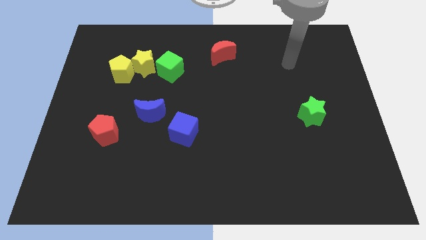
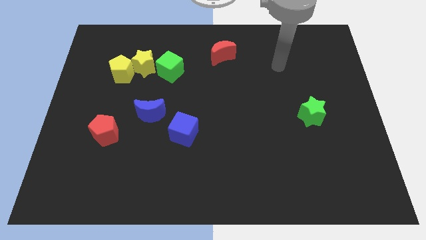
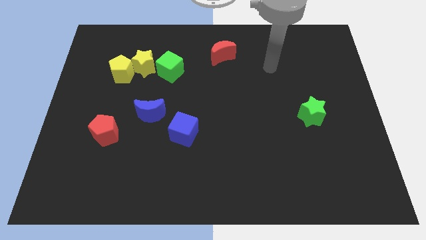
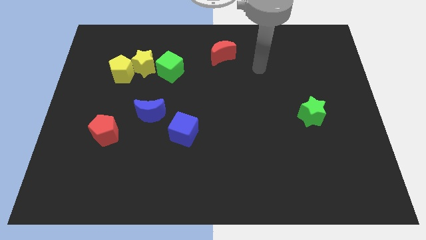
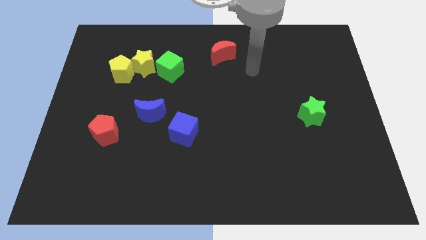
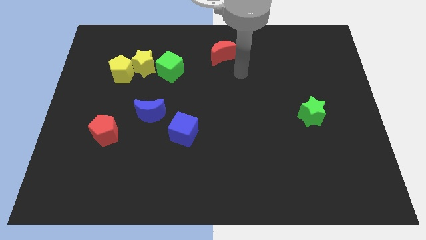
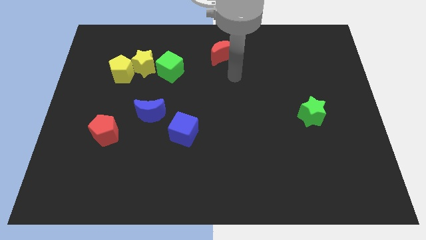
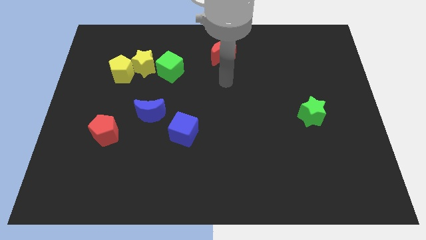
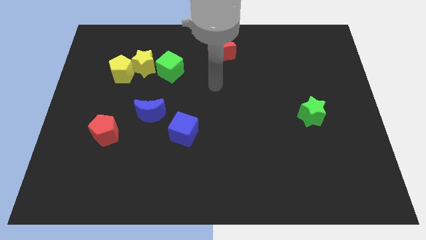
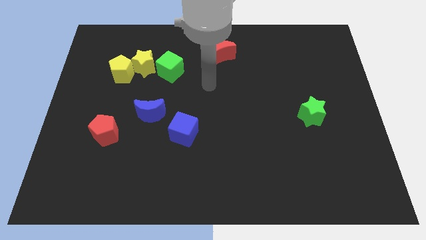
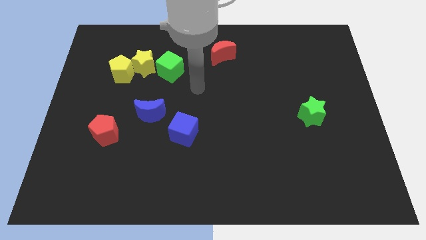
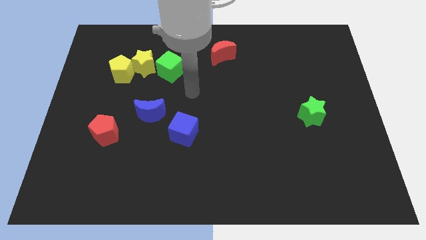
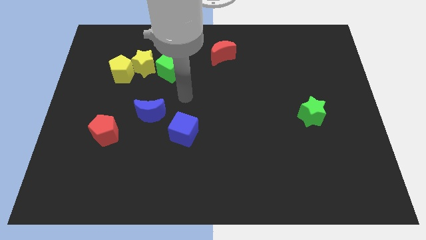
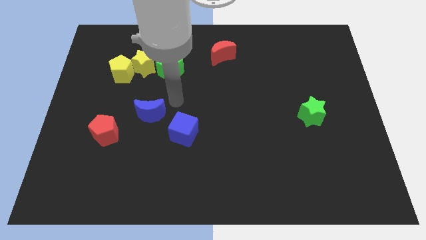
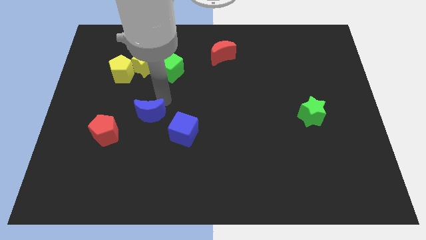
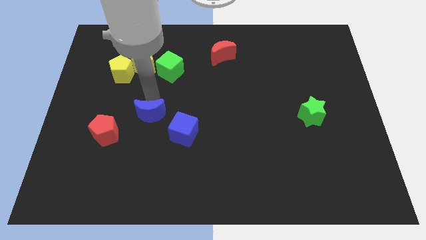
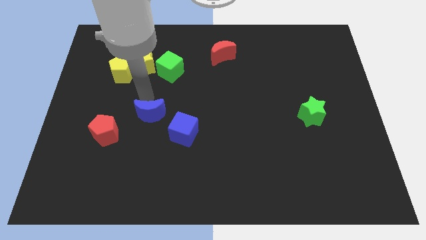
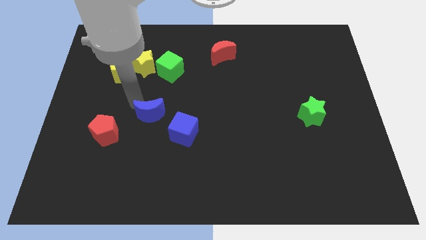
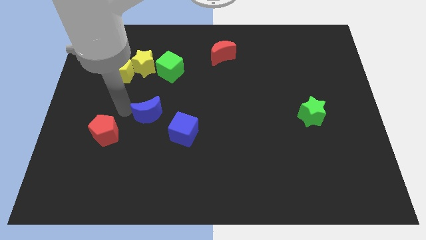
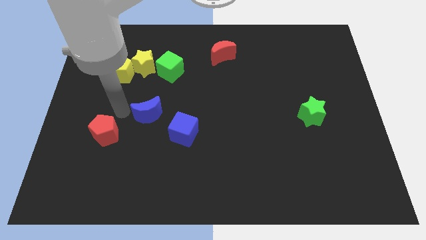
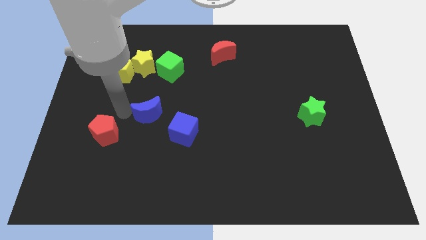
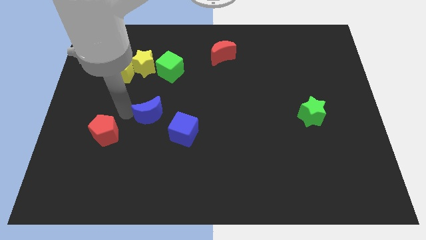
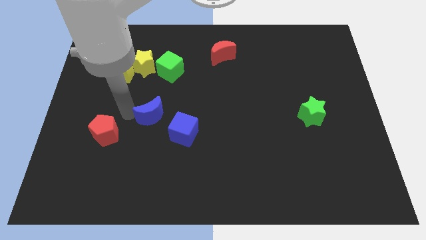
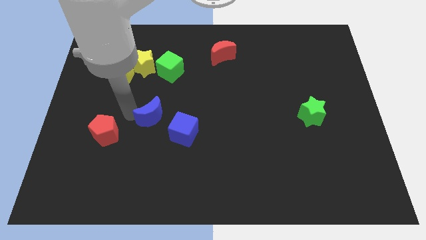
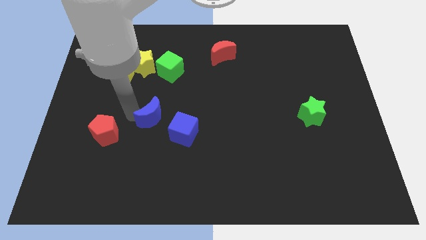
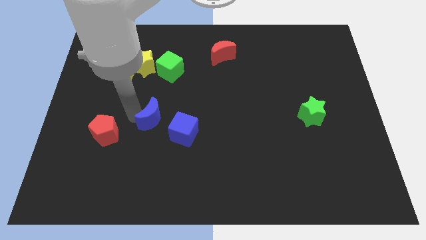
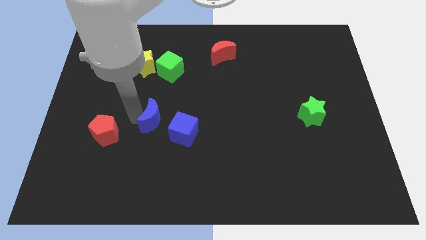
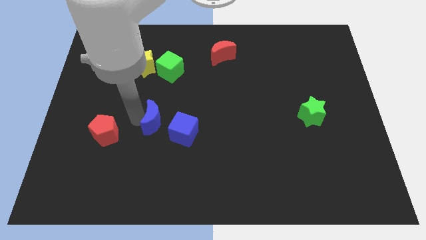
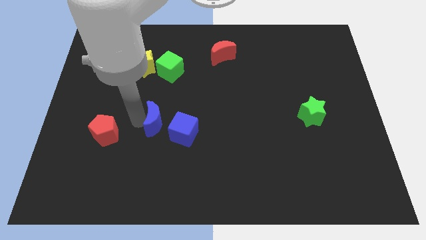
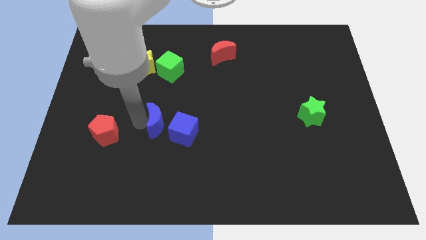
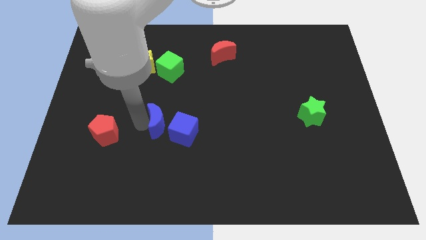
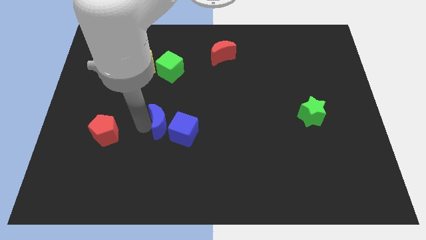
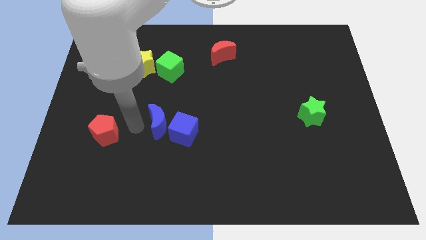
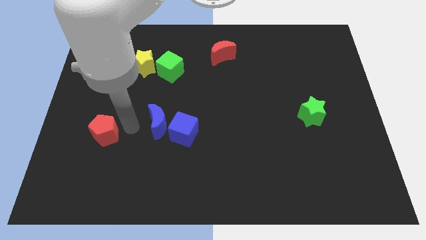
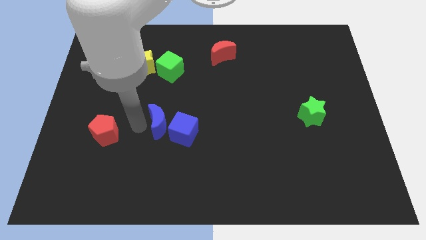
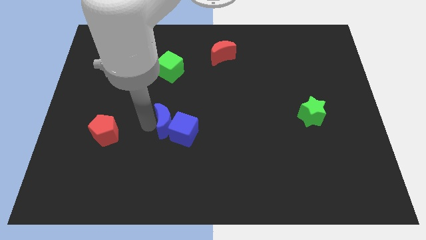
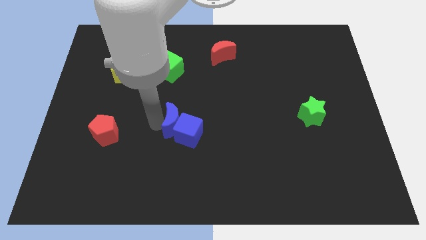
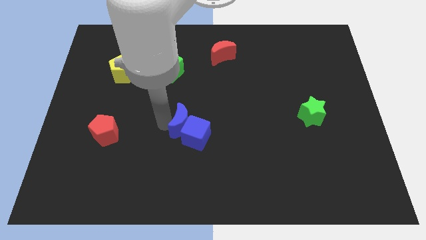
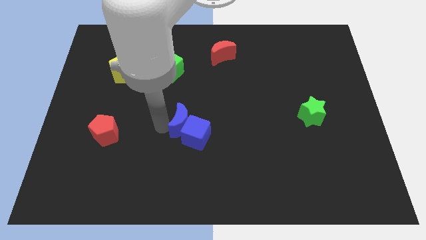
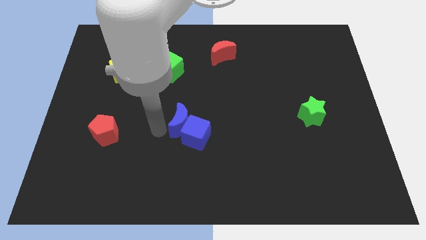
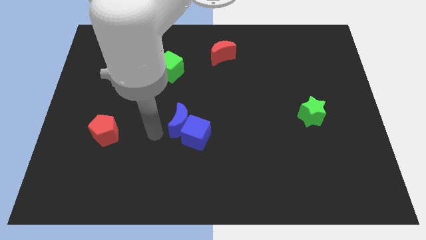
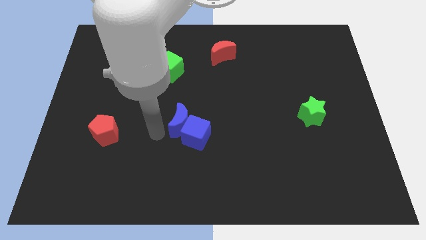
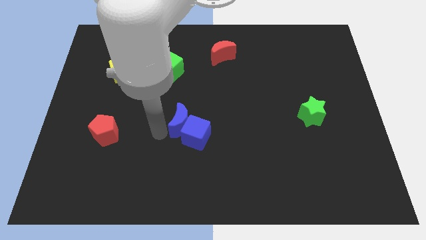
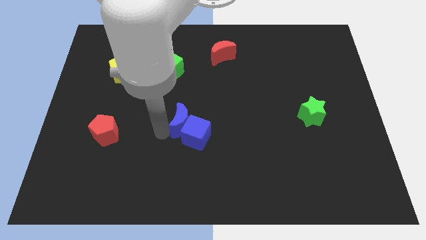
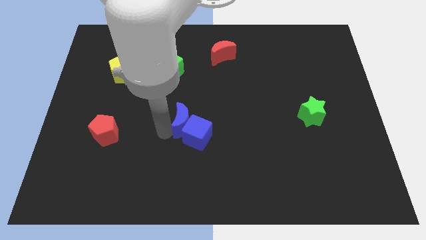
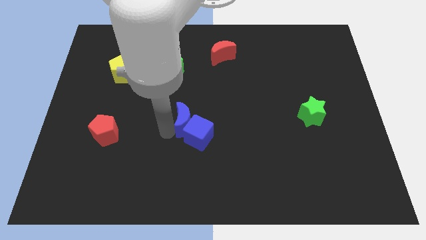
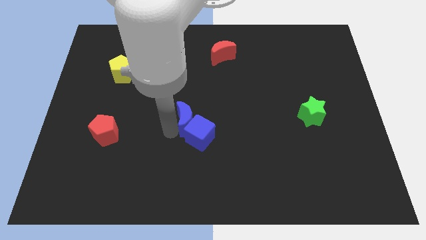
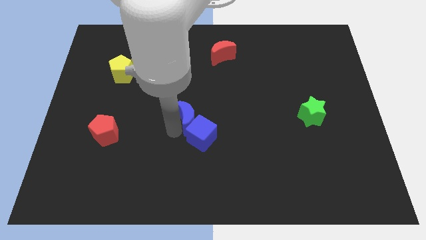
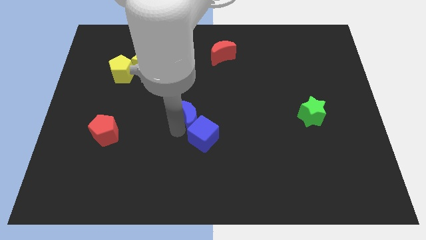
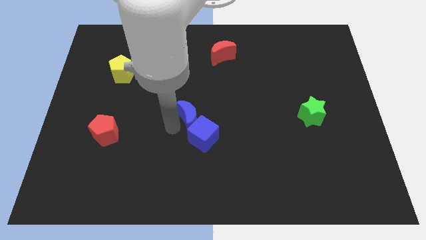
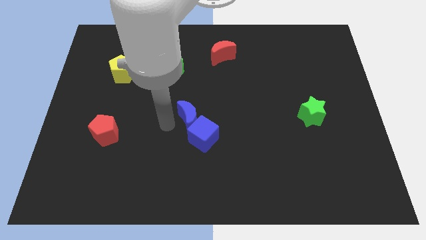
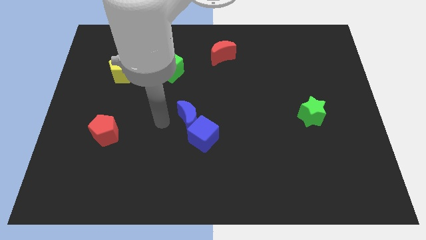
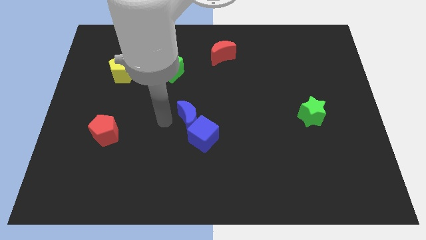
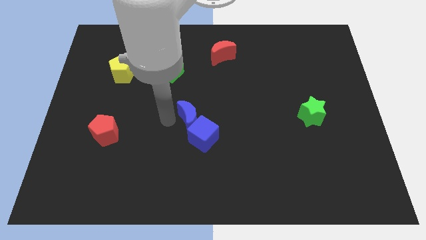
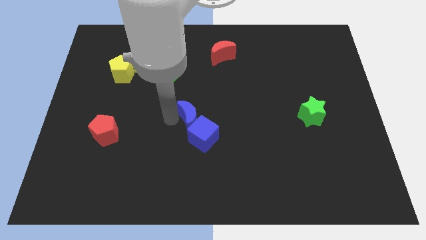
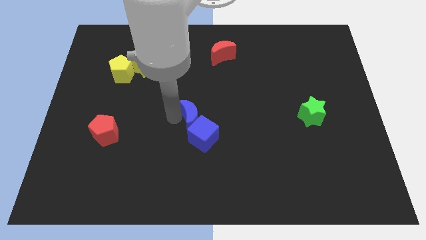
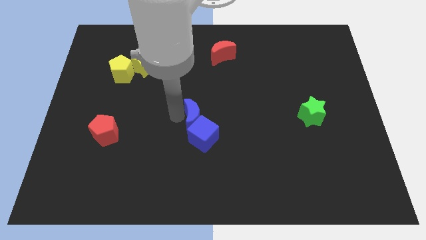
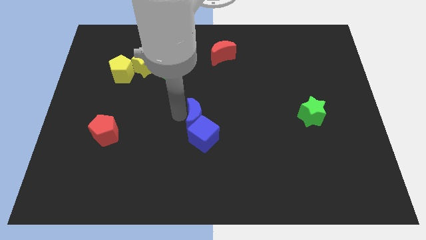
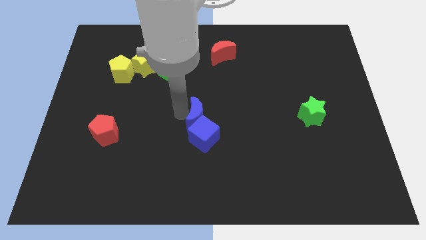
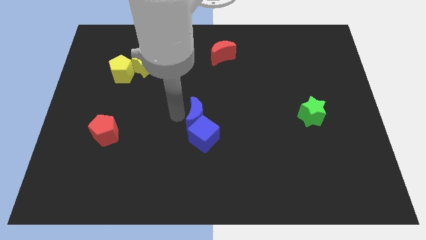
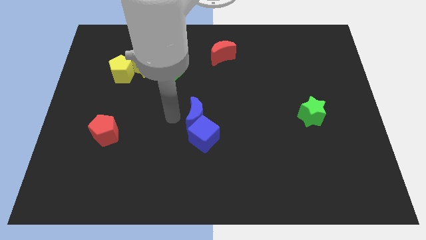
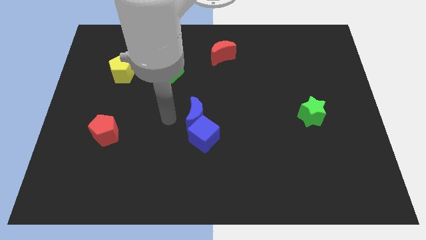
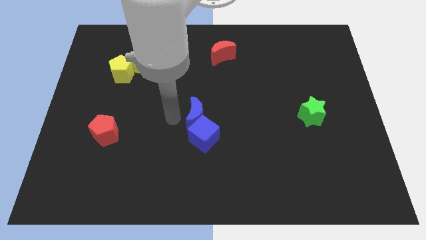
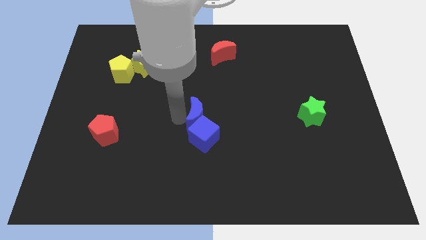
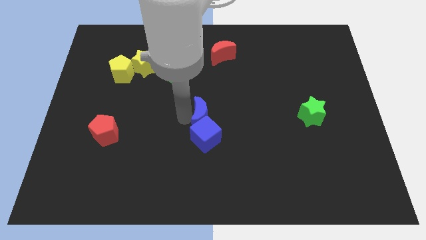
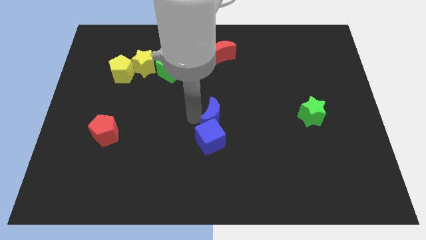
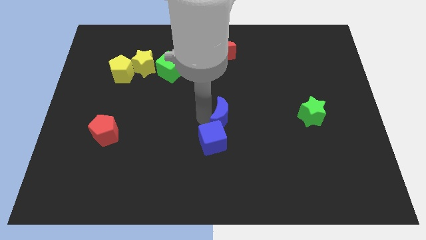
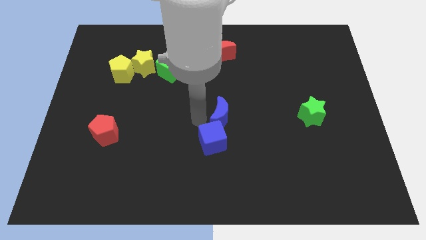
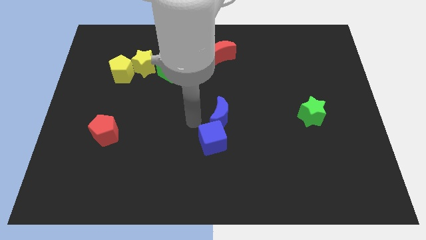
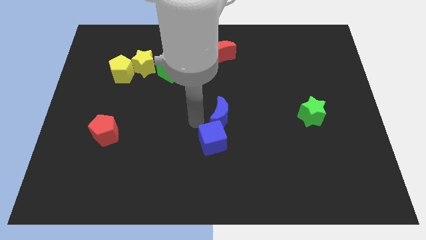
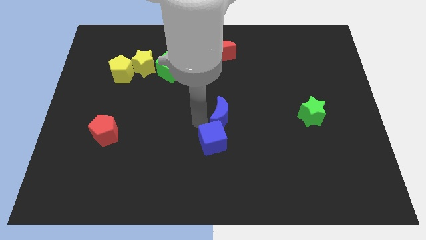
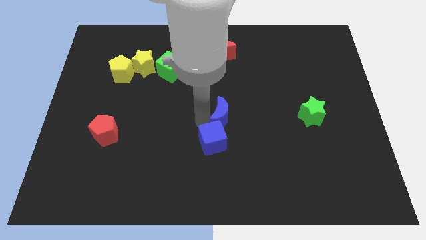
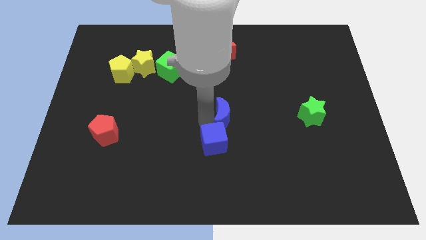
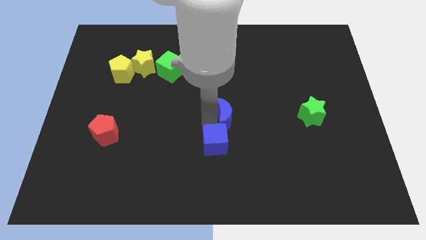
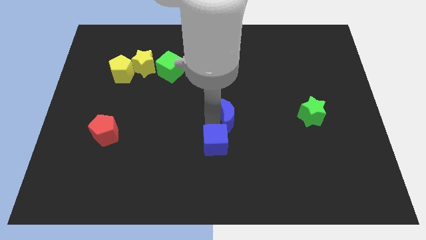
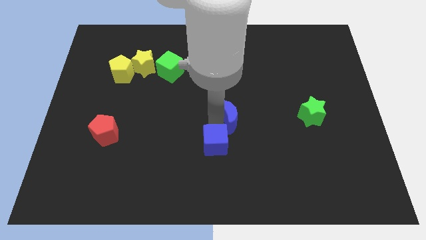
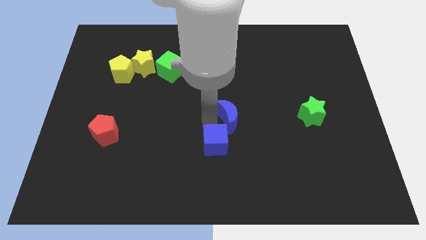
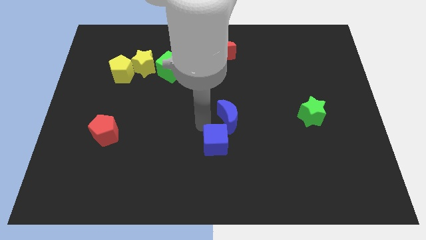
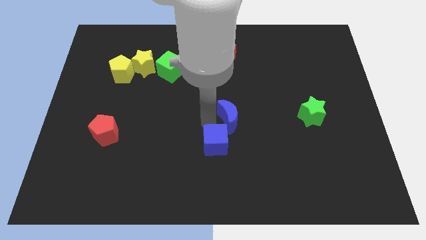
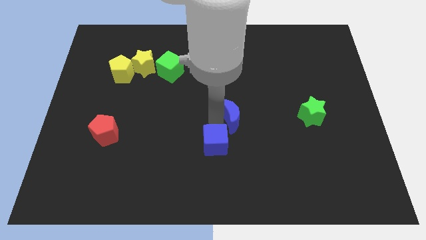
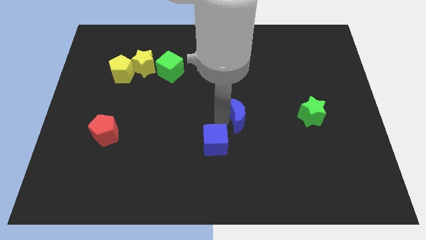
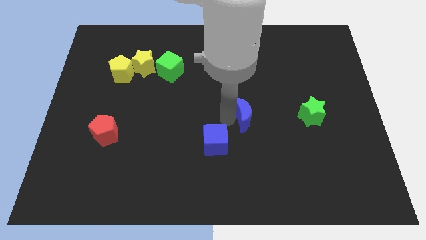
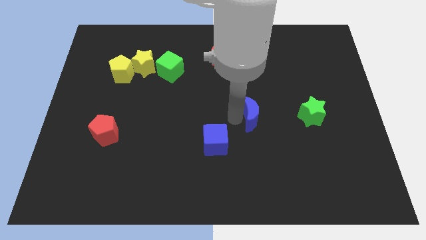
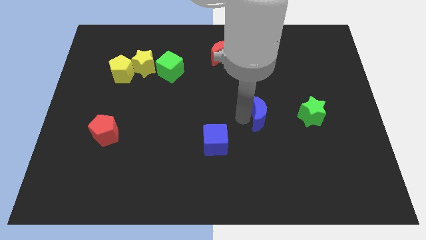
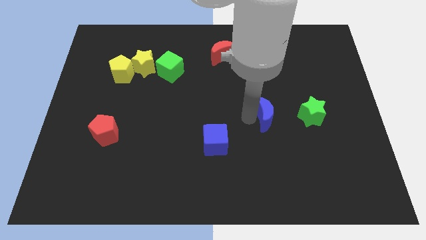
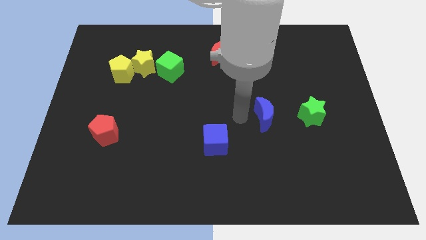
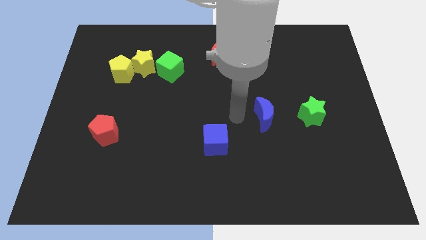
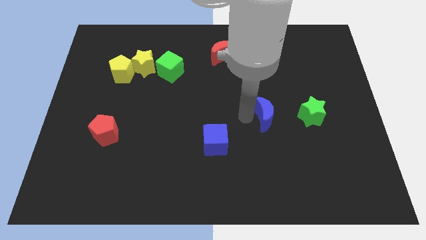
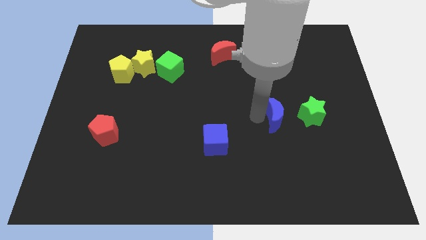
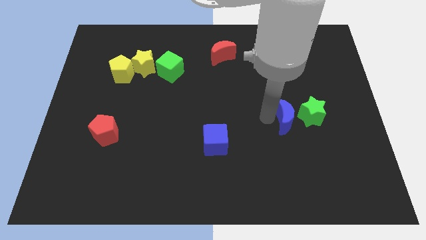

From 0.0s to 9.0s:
slide the blue moon next to the green star
